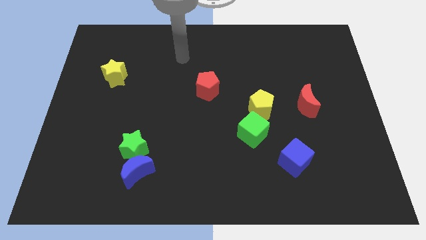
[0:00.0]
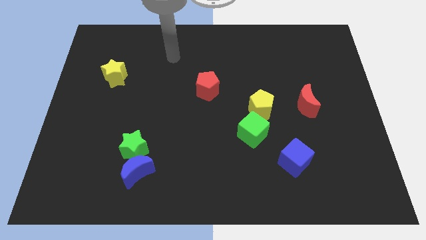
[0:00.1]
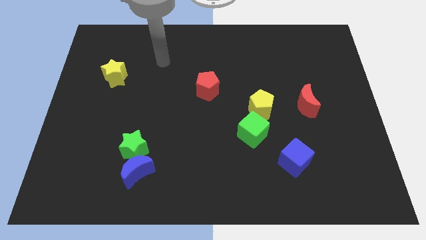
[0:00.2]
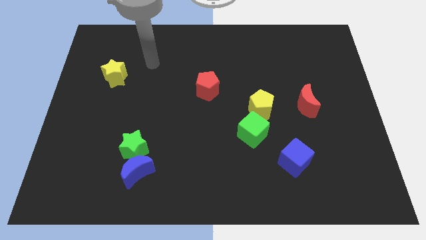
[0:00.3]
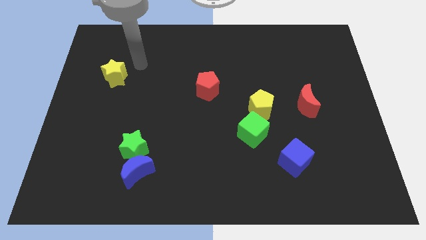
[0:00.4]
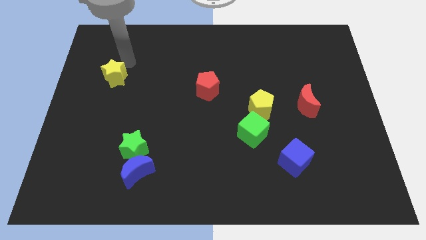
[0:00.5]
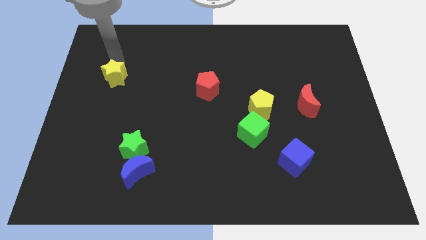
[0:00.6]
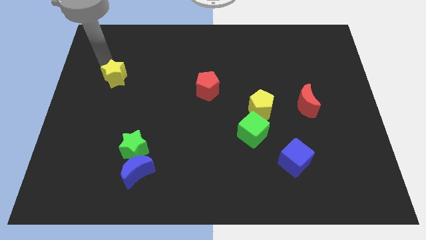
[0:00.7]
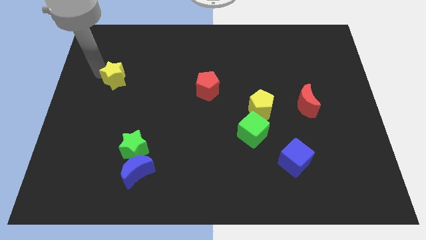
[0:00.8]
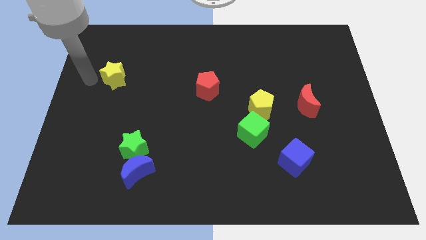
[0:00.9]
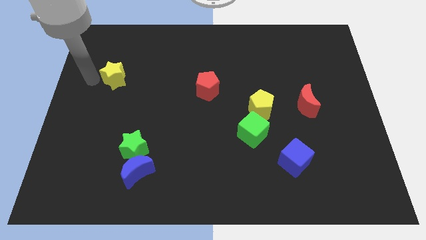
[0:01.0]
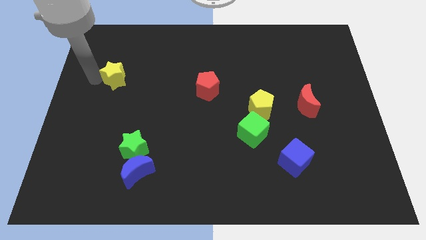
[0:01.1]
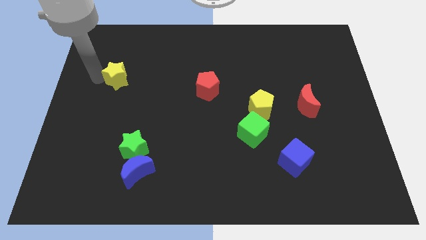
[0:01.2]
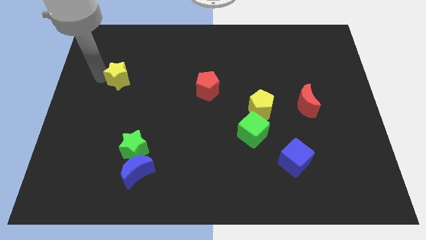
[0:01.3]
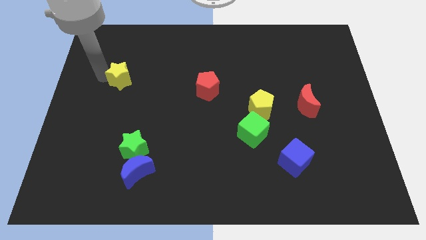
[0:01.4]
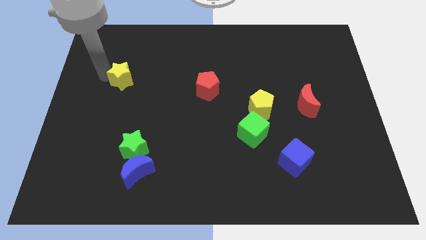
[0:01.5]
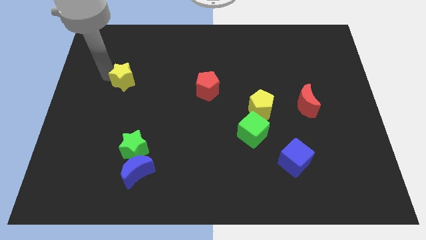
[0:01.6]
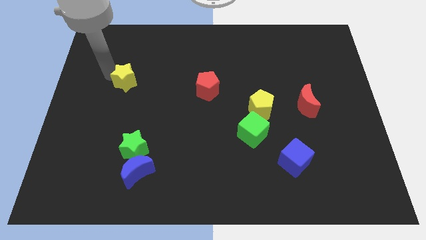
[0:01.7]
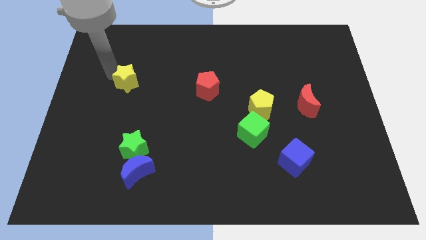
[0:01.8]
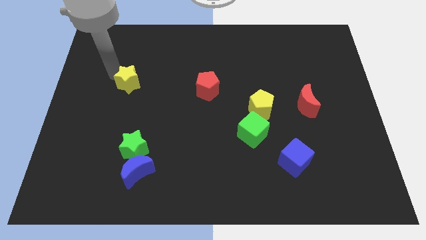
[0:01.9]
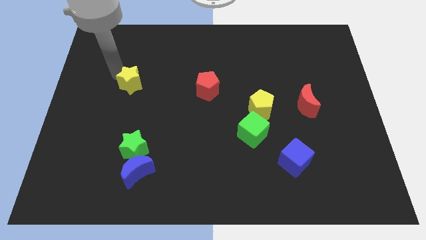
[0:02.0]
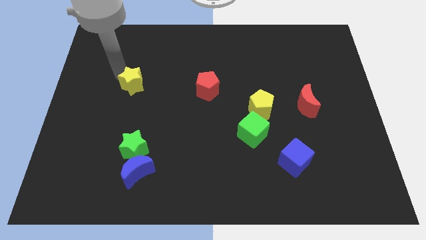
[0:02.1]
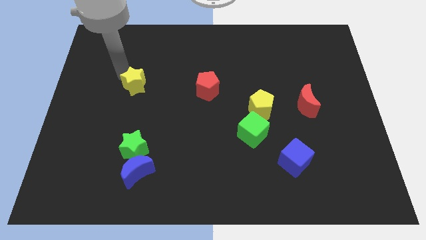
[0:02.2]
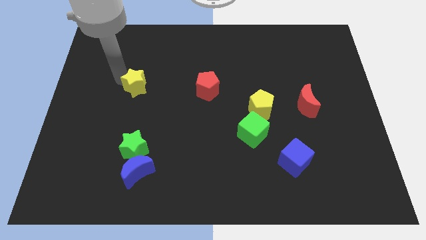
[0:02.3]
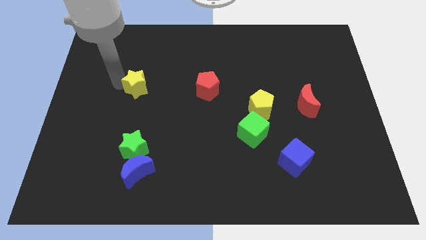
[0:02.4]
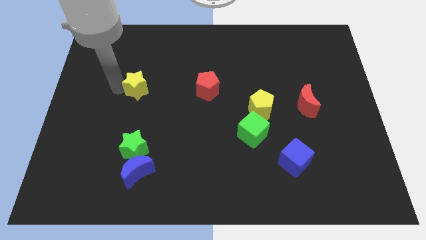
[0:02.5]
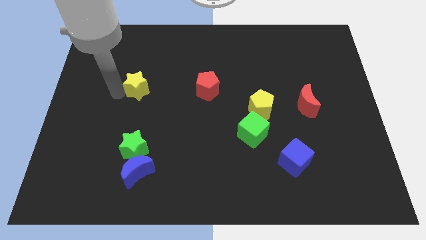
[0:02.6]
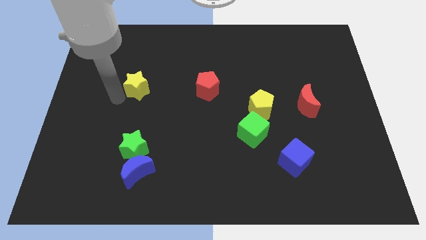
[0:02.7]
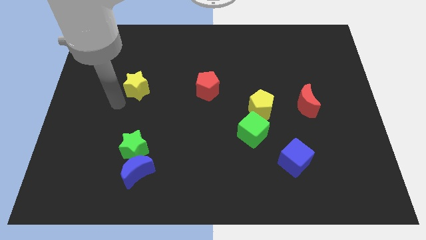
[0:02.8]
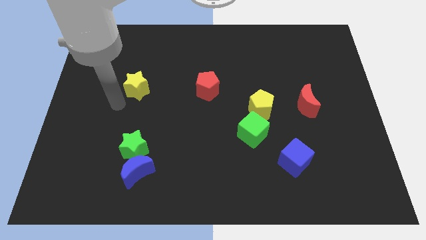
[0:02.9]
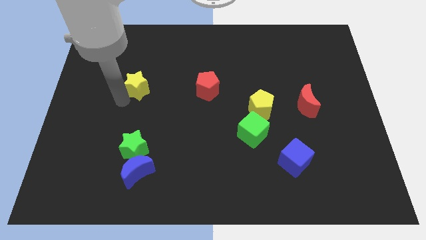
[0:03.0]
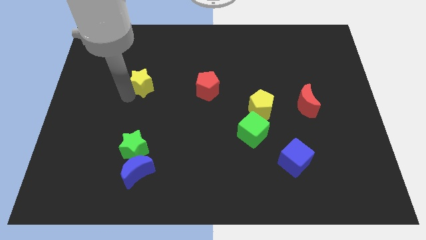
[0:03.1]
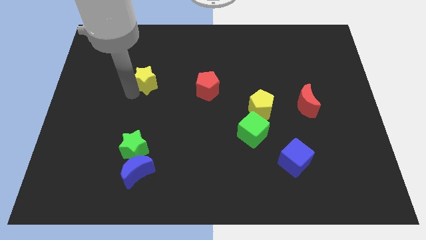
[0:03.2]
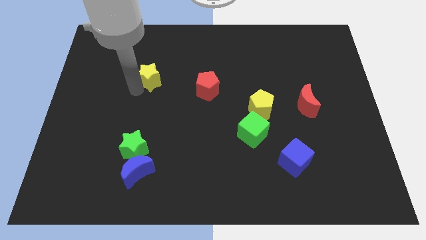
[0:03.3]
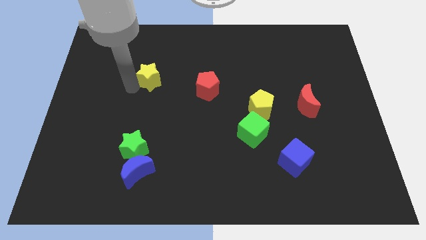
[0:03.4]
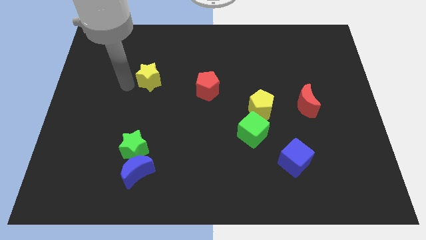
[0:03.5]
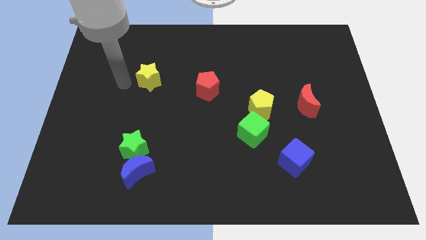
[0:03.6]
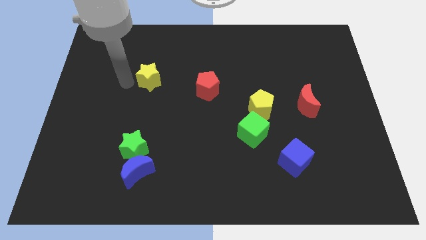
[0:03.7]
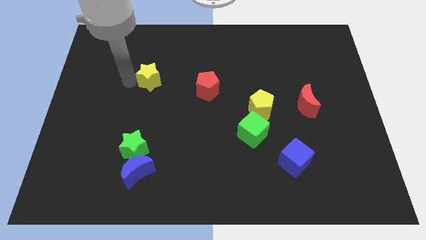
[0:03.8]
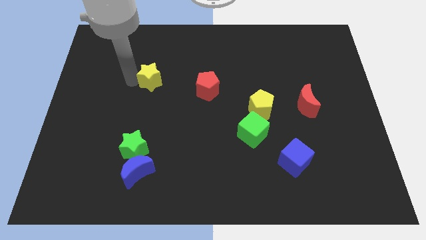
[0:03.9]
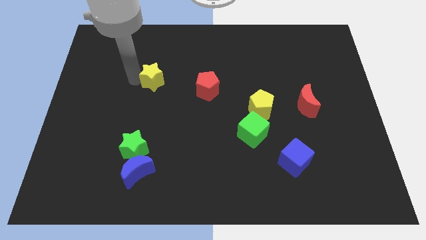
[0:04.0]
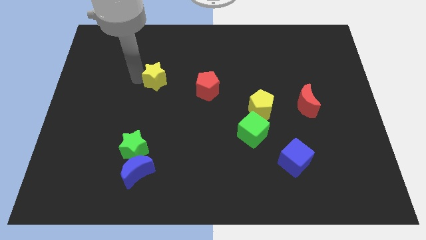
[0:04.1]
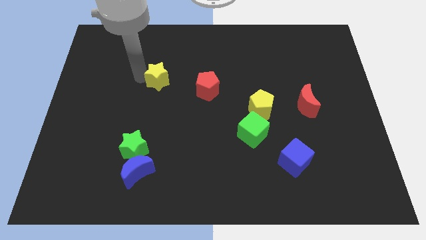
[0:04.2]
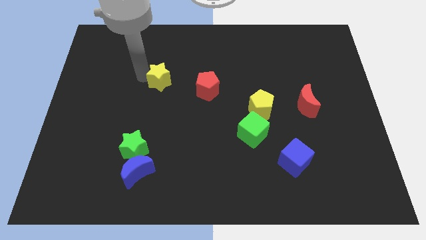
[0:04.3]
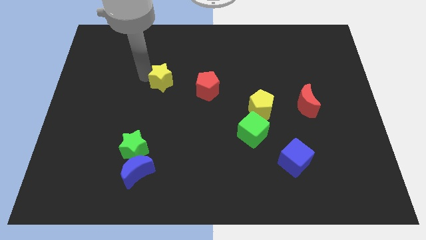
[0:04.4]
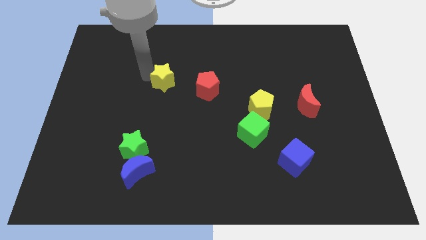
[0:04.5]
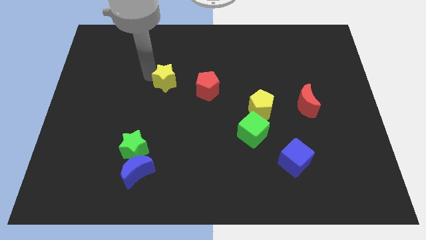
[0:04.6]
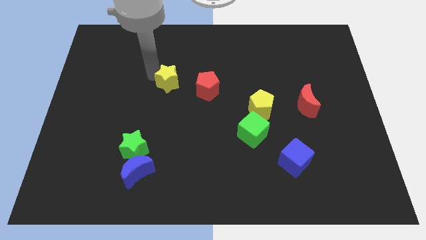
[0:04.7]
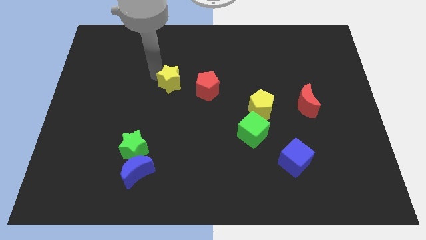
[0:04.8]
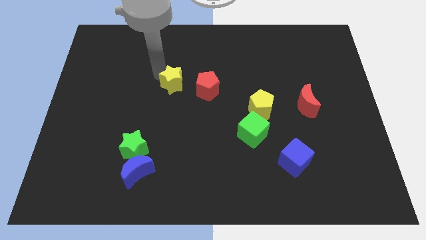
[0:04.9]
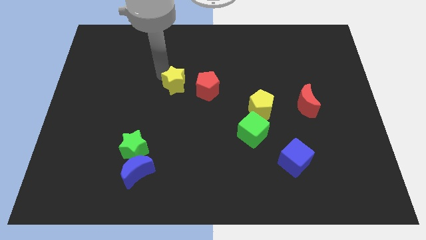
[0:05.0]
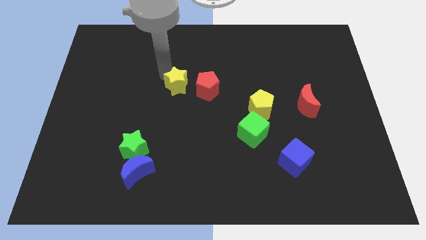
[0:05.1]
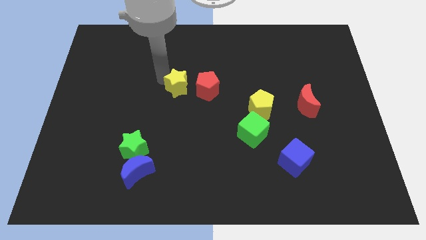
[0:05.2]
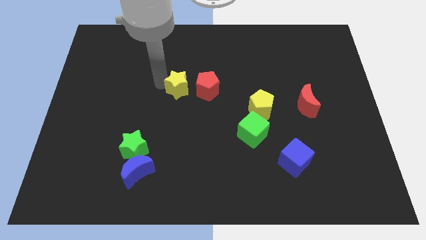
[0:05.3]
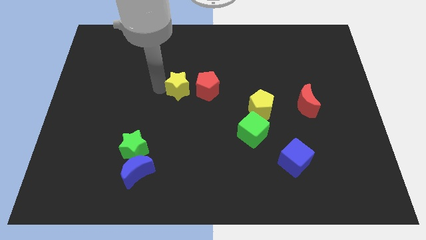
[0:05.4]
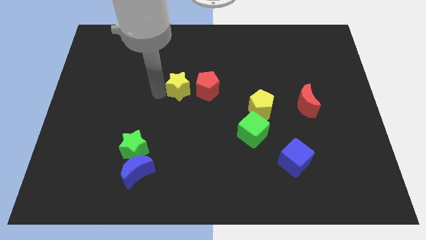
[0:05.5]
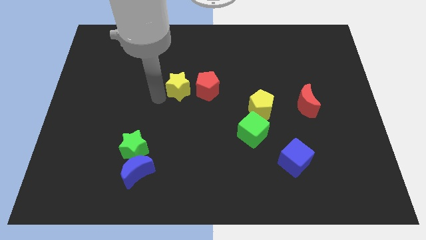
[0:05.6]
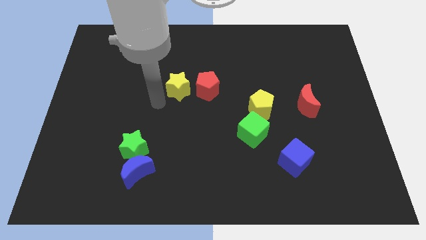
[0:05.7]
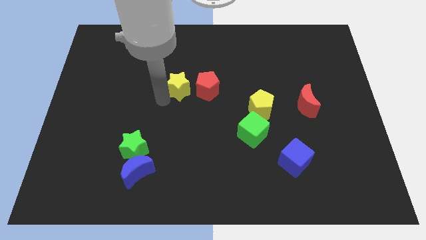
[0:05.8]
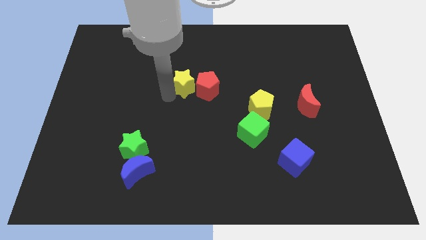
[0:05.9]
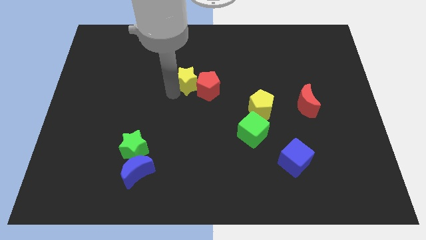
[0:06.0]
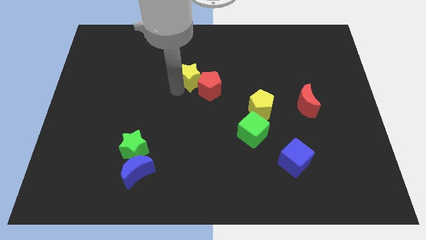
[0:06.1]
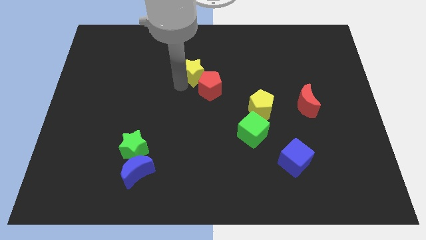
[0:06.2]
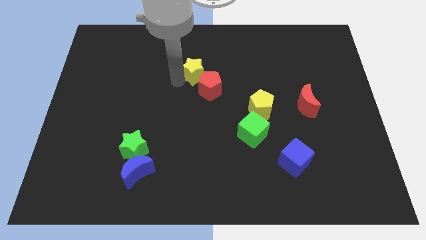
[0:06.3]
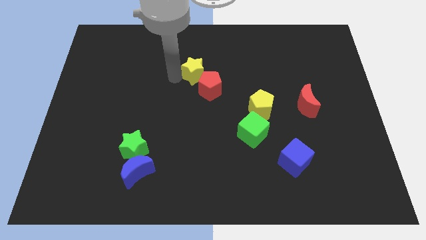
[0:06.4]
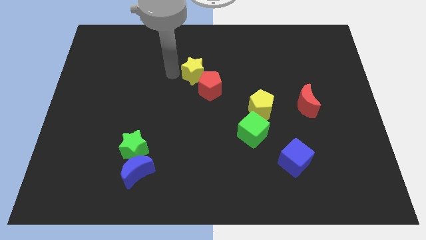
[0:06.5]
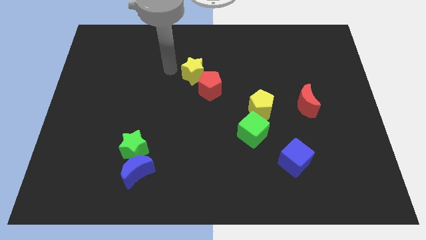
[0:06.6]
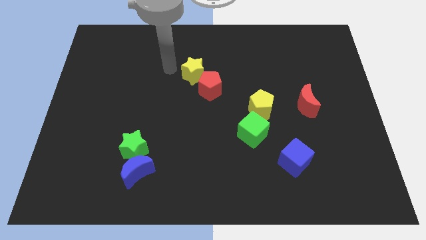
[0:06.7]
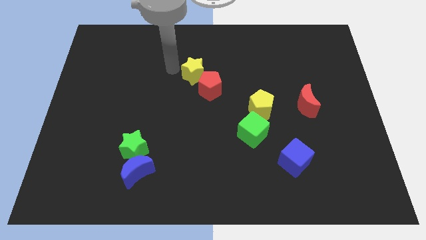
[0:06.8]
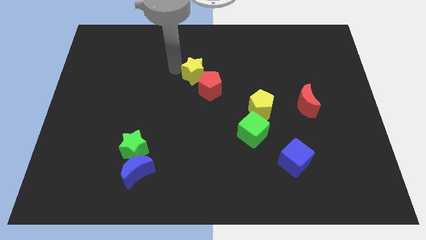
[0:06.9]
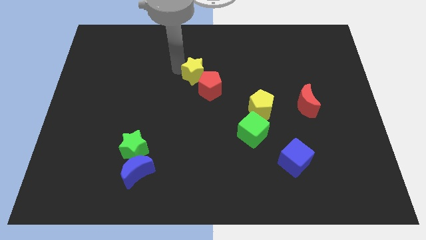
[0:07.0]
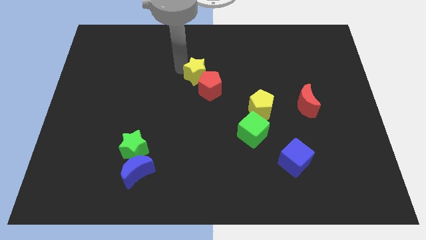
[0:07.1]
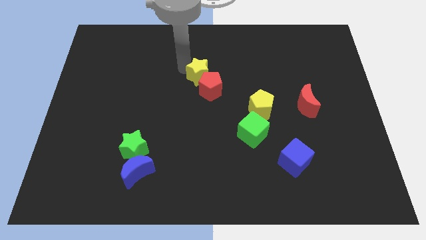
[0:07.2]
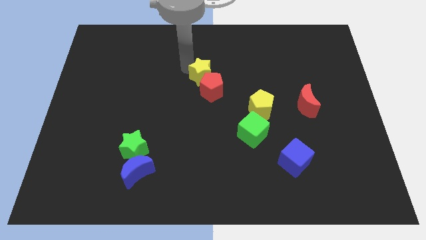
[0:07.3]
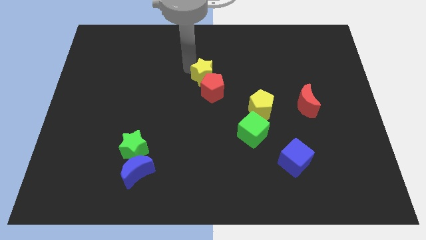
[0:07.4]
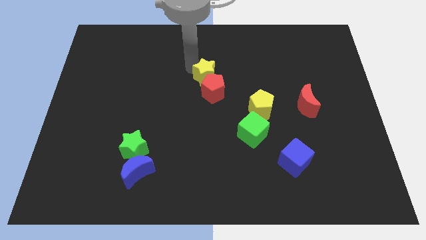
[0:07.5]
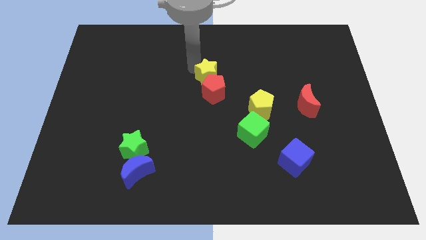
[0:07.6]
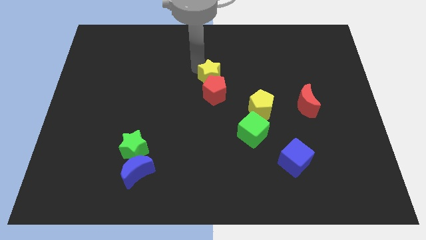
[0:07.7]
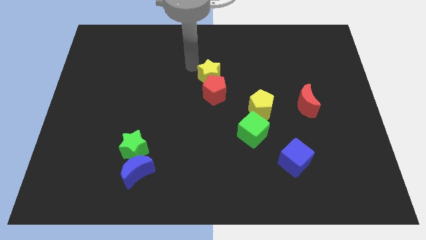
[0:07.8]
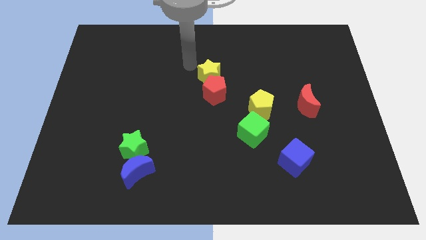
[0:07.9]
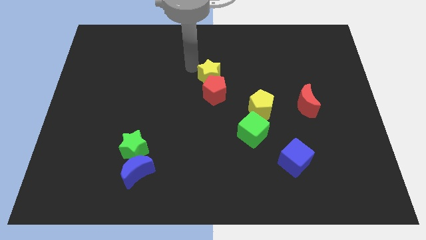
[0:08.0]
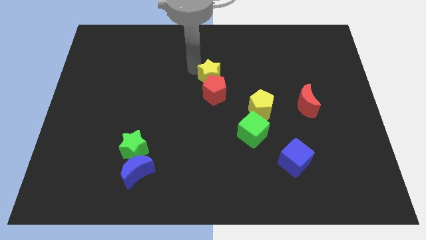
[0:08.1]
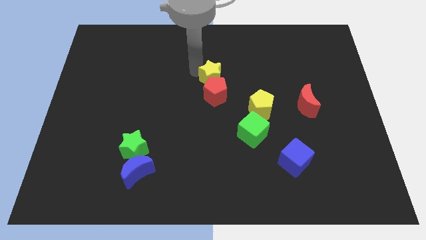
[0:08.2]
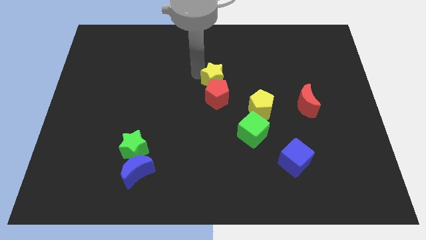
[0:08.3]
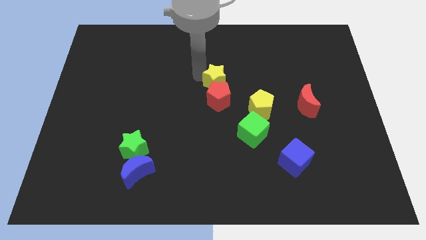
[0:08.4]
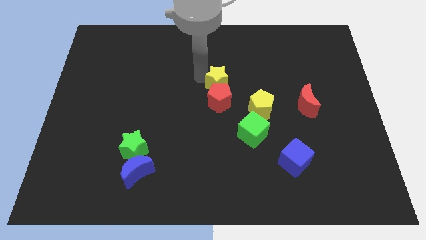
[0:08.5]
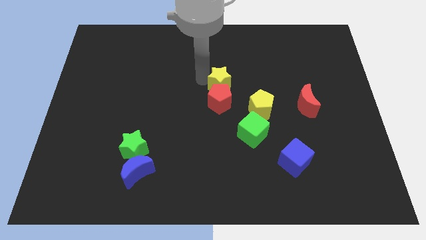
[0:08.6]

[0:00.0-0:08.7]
slide the yellow star to the top left side of the yellow pentagon
